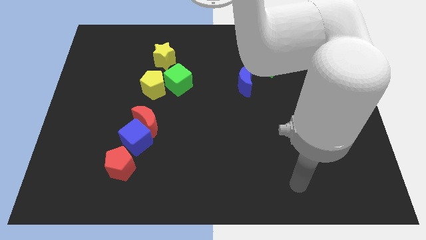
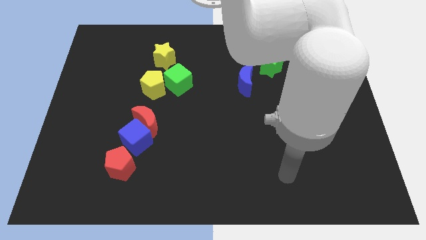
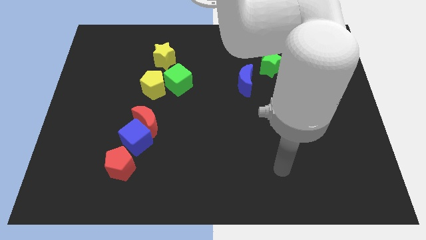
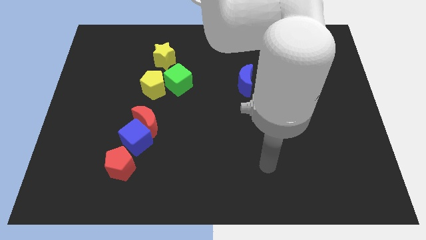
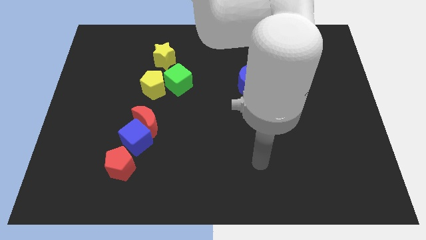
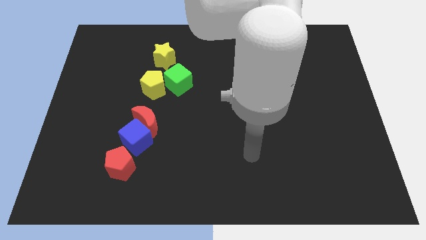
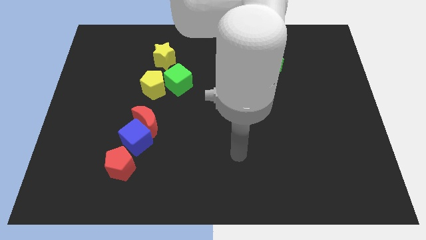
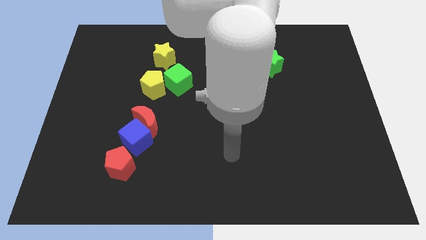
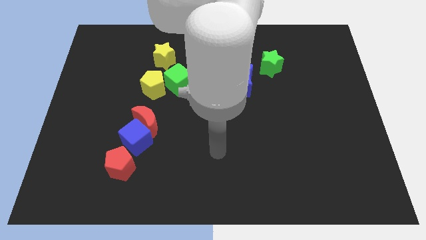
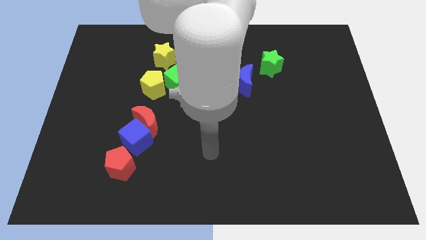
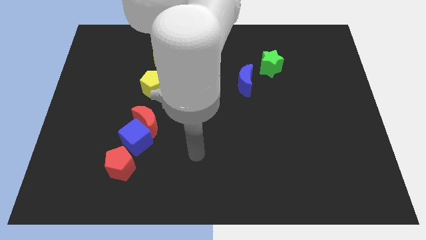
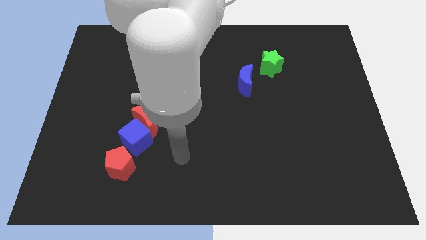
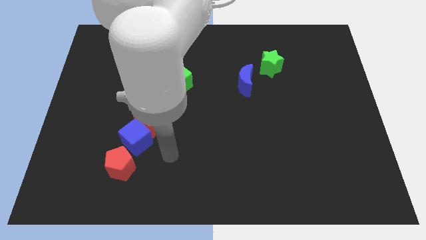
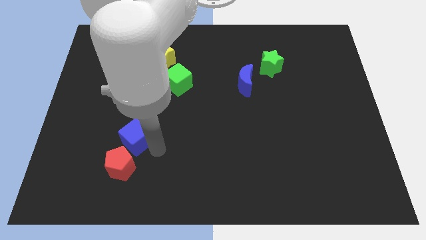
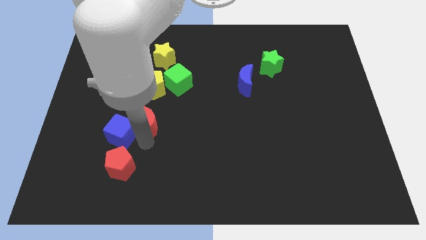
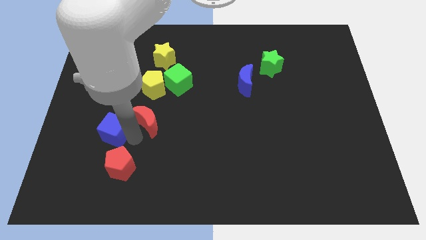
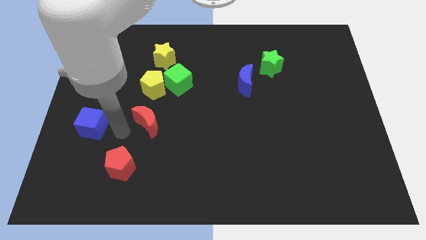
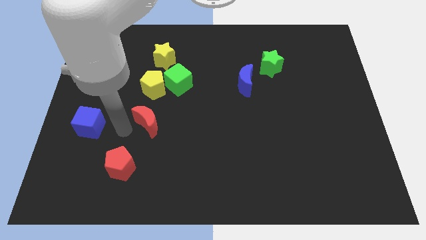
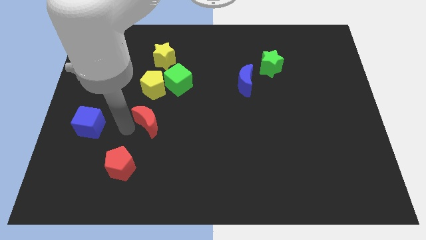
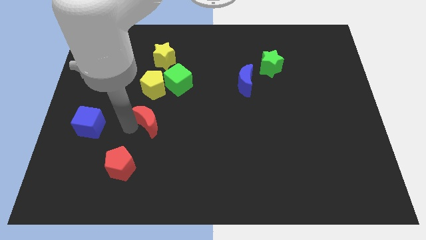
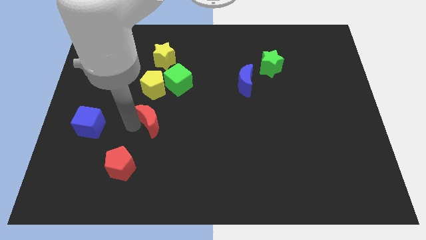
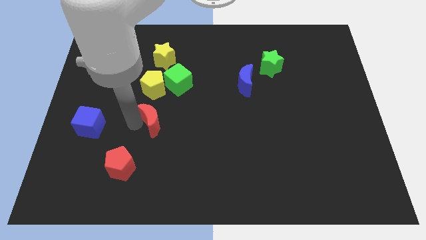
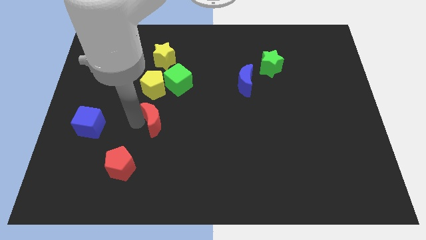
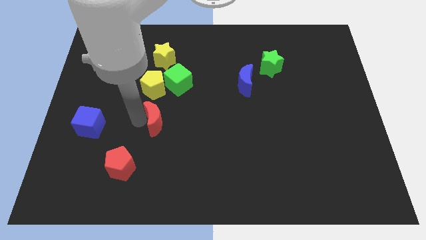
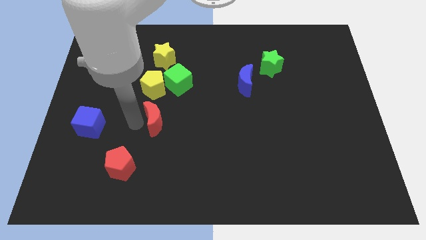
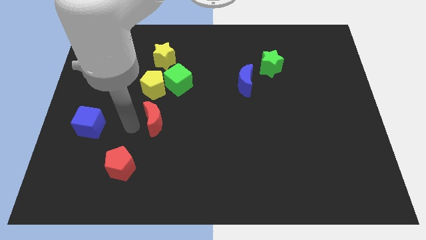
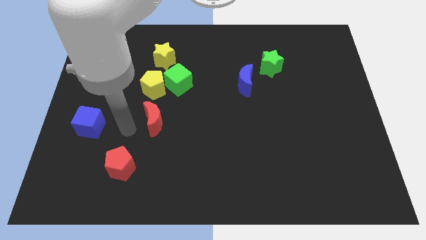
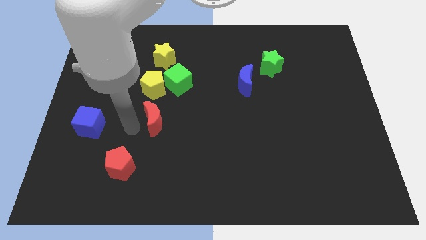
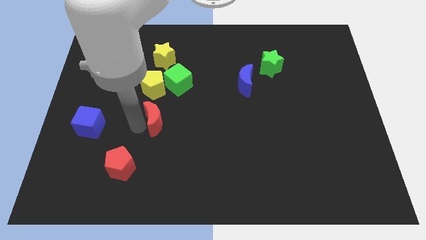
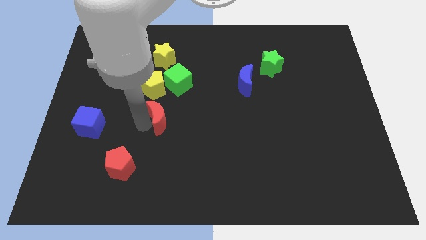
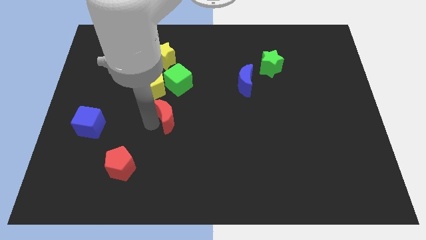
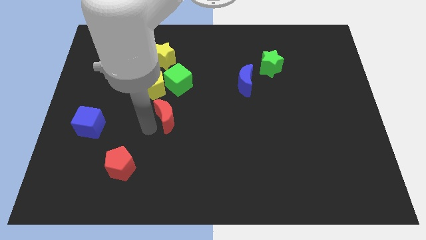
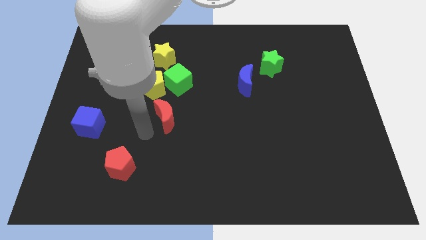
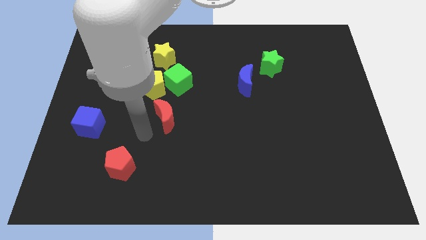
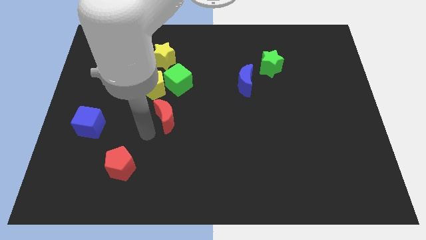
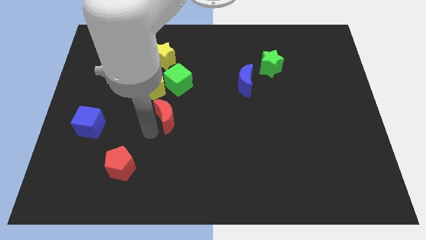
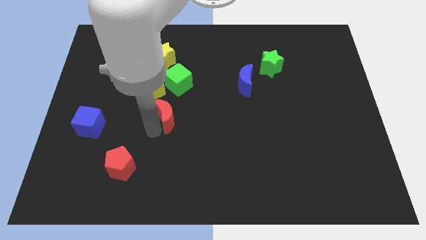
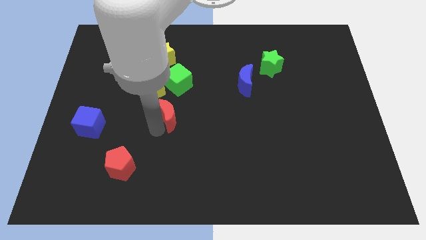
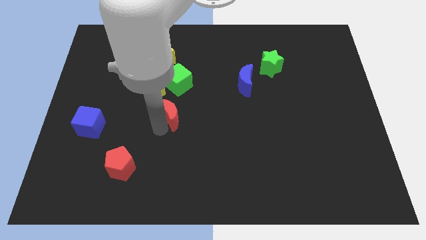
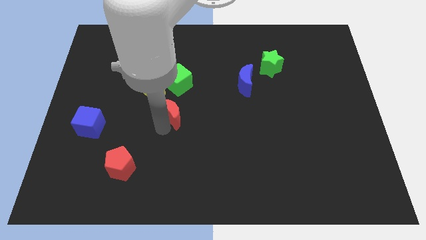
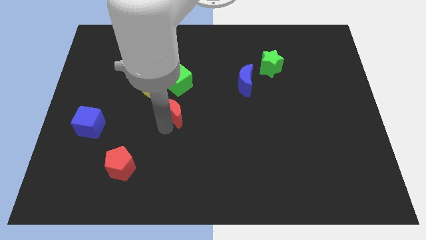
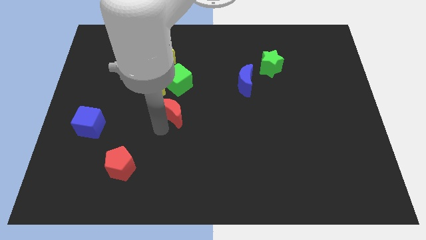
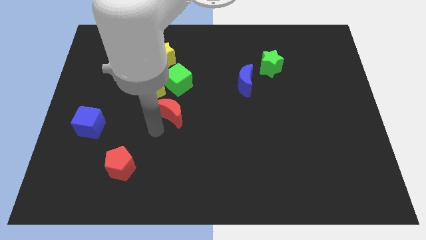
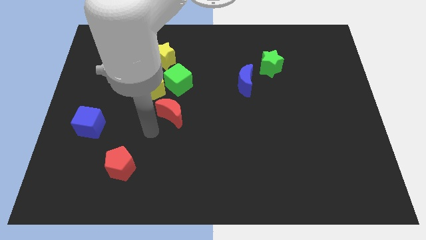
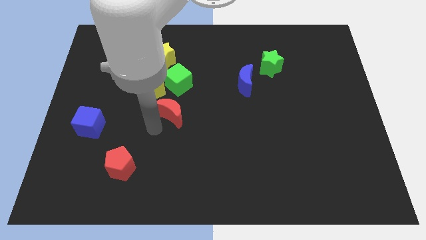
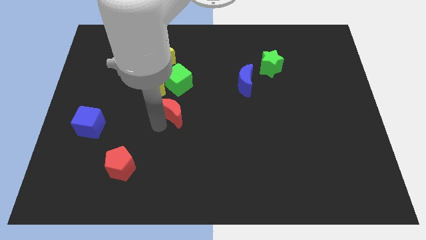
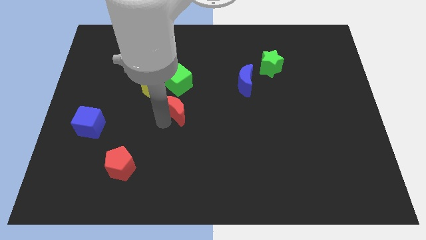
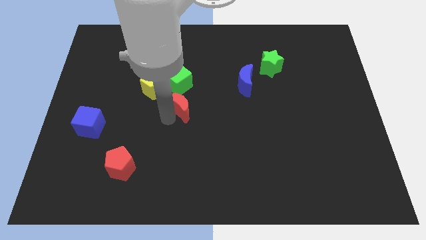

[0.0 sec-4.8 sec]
move the red moon somewhat upwards and then right

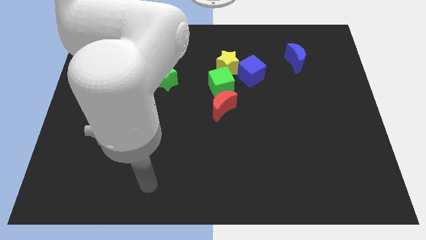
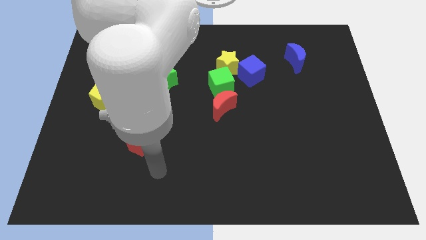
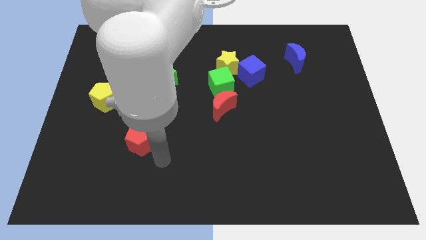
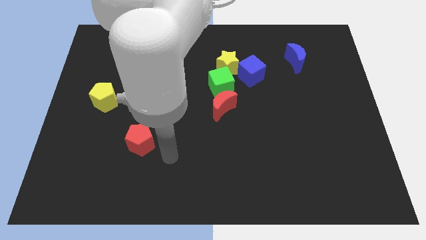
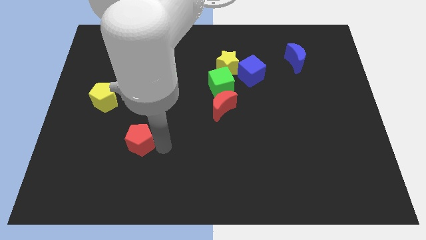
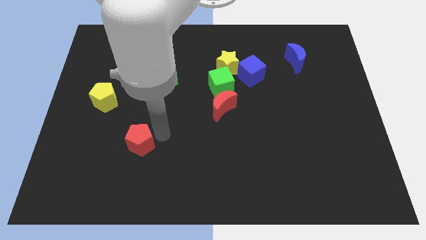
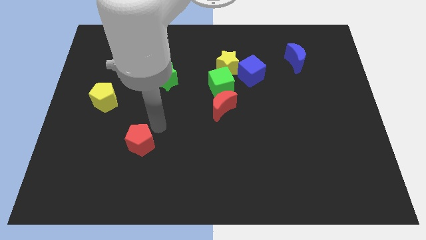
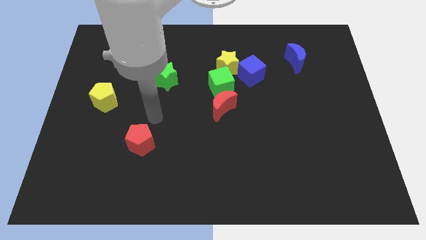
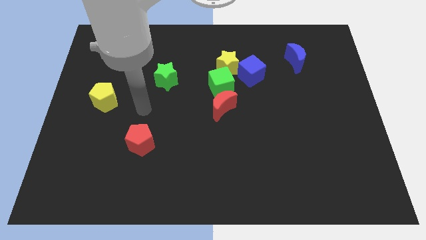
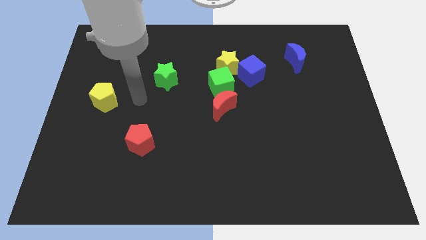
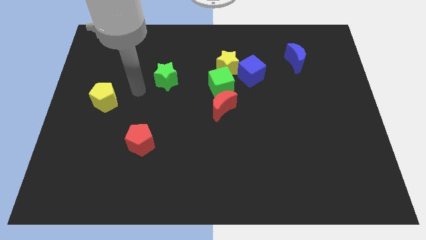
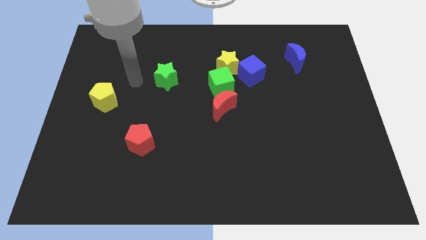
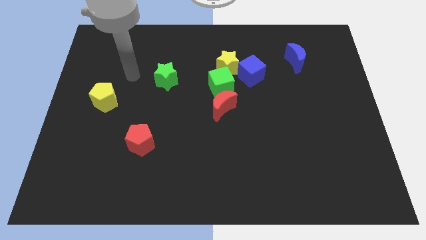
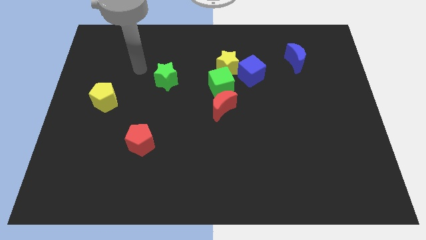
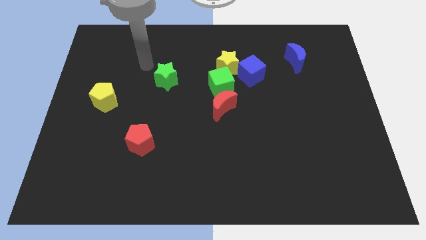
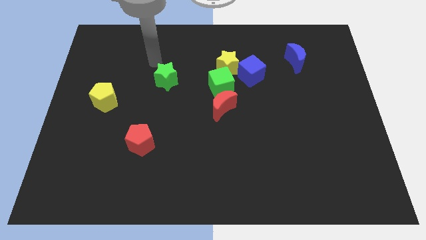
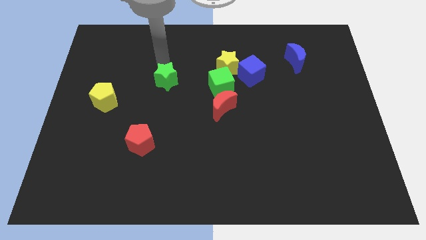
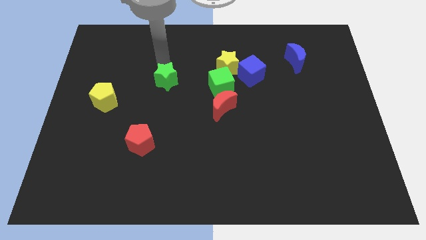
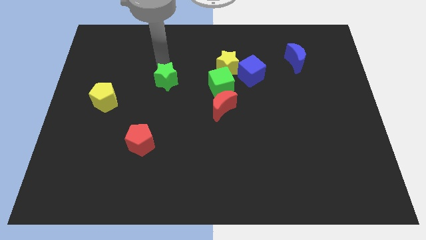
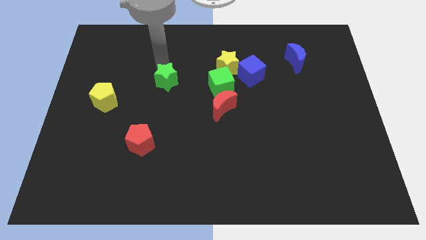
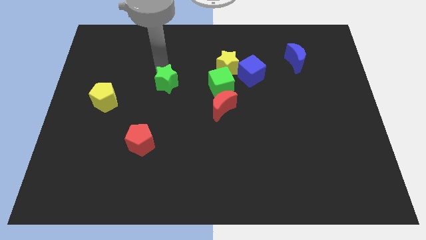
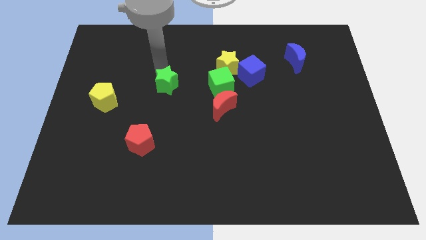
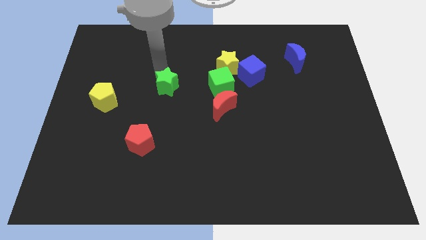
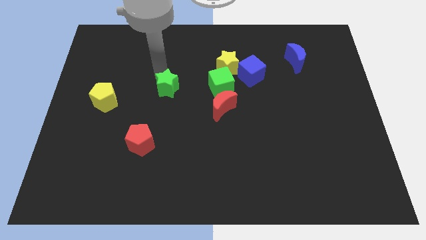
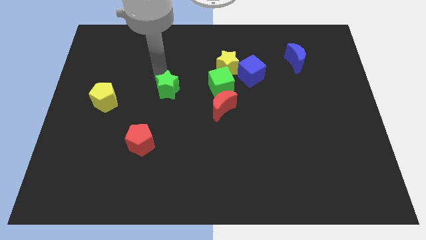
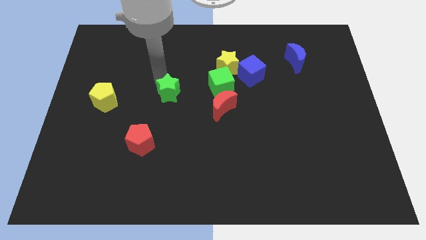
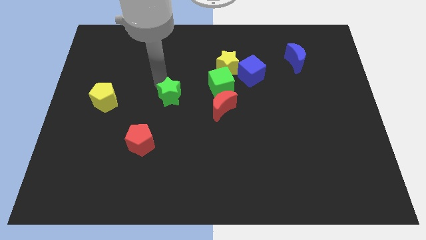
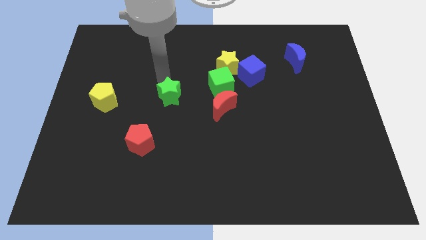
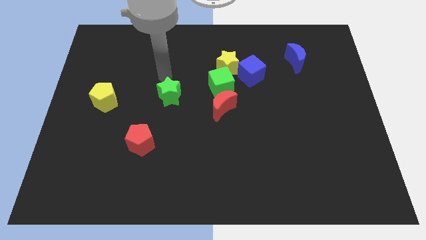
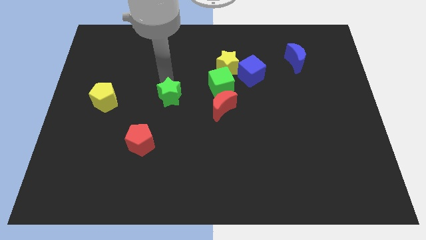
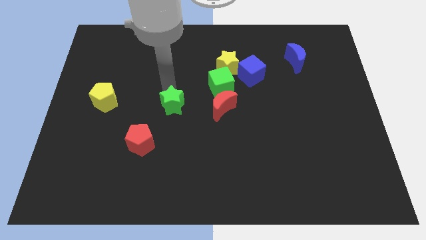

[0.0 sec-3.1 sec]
slightly push the green star downwards
